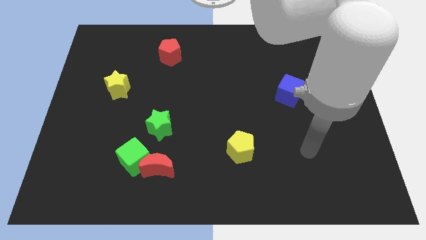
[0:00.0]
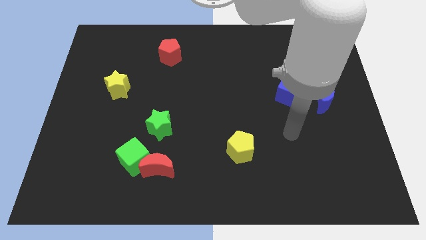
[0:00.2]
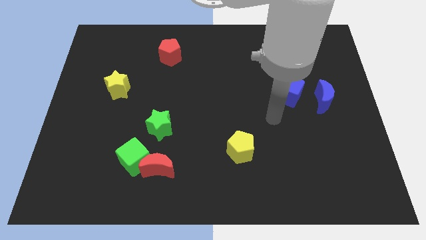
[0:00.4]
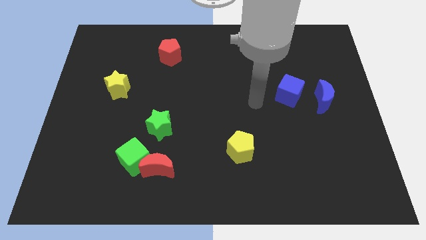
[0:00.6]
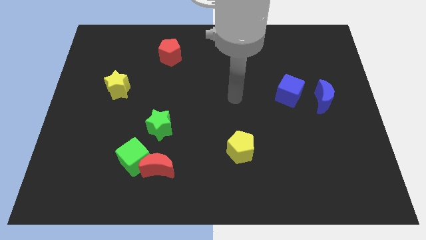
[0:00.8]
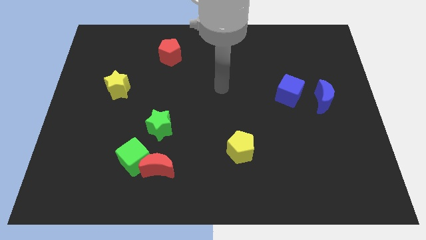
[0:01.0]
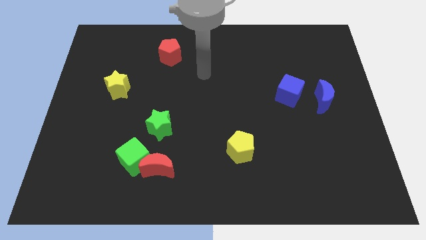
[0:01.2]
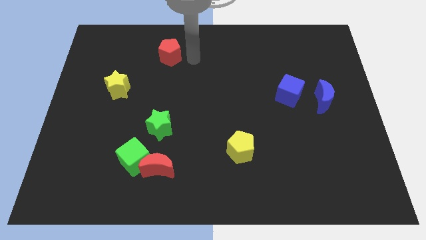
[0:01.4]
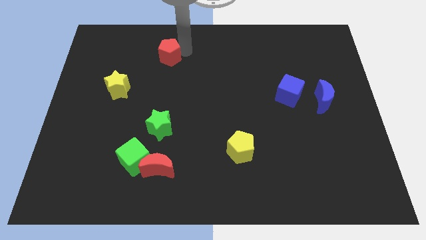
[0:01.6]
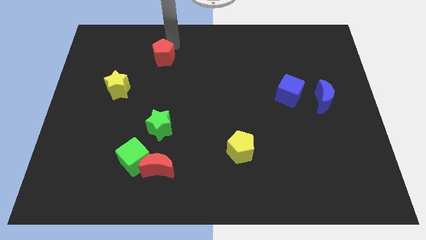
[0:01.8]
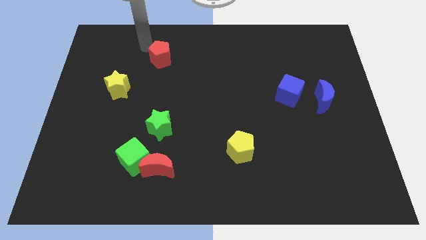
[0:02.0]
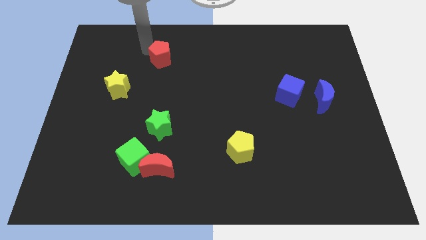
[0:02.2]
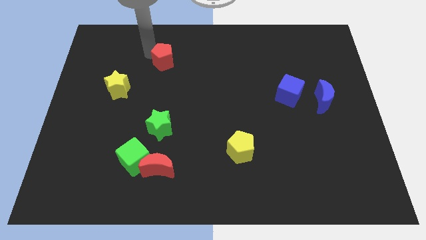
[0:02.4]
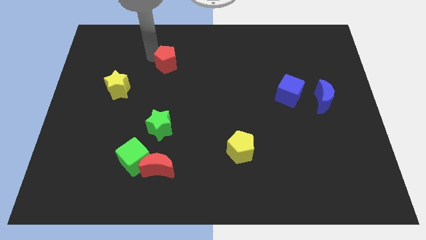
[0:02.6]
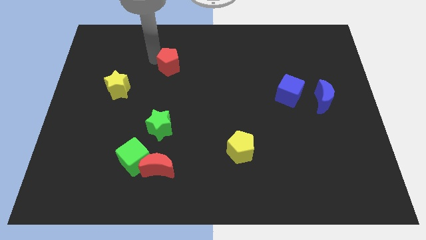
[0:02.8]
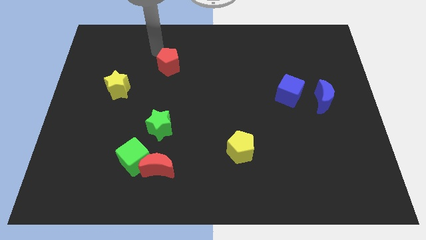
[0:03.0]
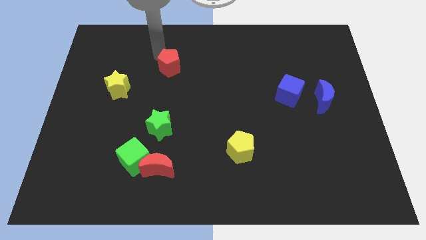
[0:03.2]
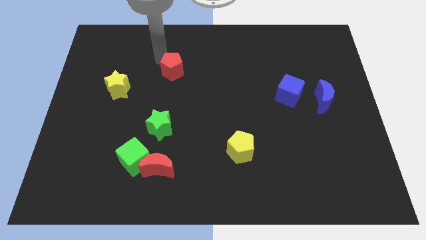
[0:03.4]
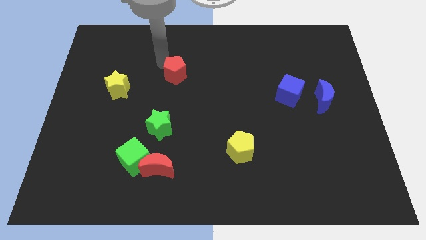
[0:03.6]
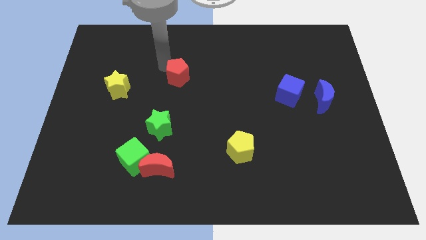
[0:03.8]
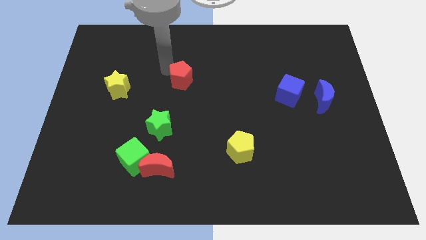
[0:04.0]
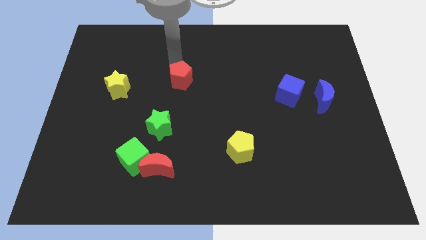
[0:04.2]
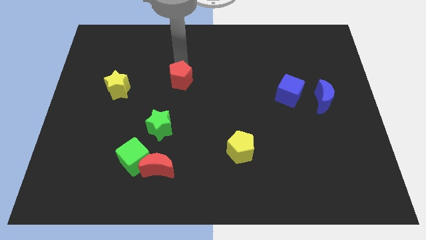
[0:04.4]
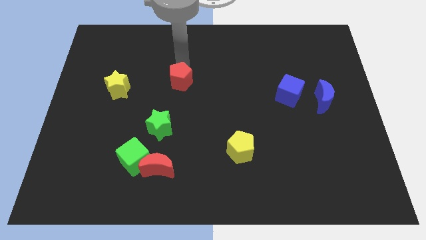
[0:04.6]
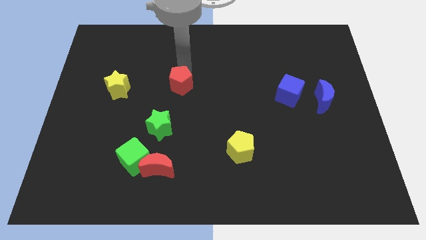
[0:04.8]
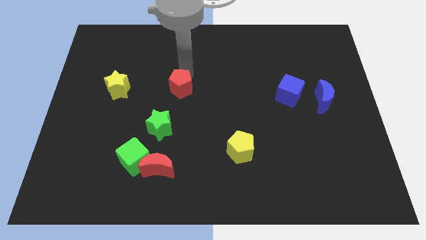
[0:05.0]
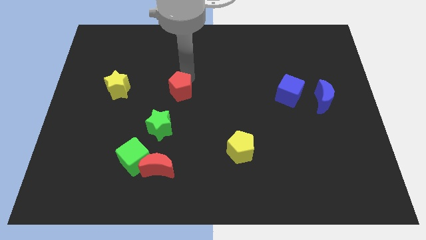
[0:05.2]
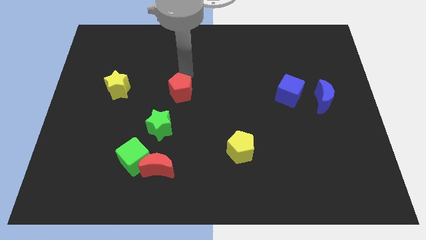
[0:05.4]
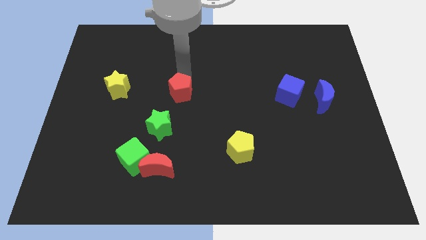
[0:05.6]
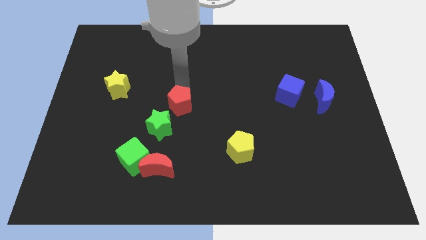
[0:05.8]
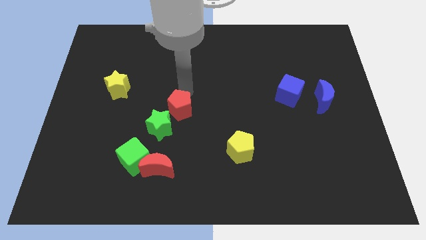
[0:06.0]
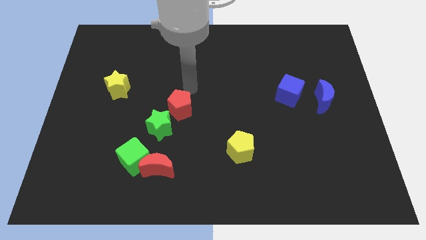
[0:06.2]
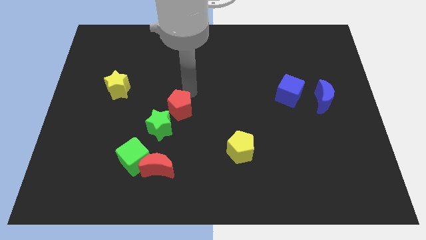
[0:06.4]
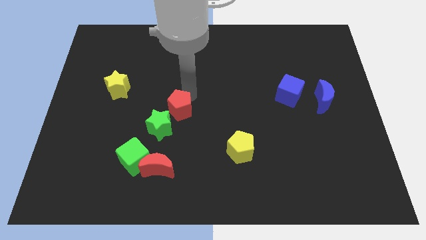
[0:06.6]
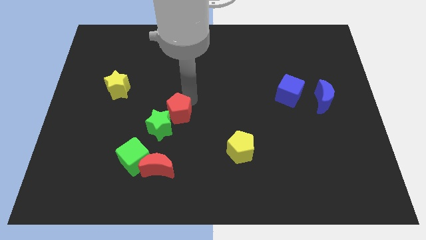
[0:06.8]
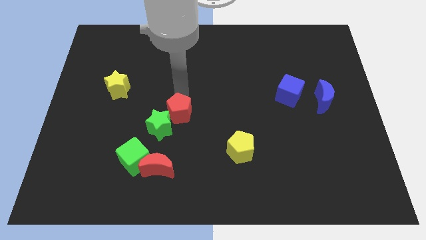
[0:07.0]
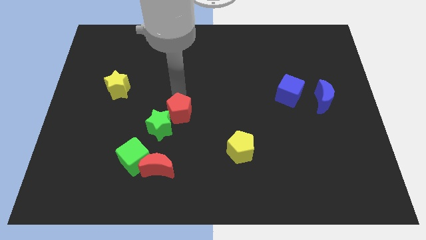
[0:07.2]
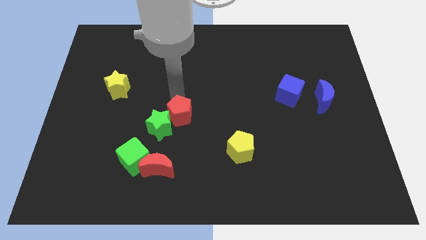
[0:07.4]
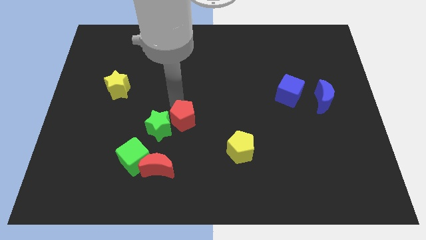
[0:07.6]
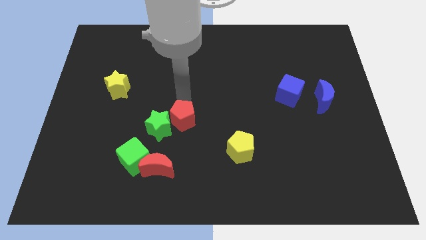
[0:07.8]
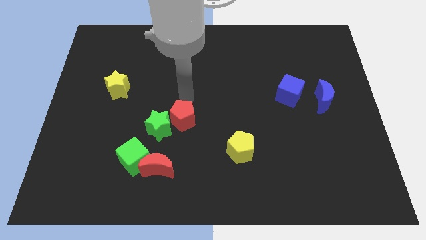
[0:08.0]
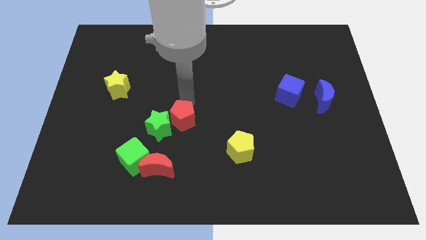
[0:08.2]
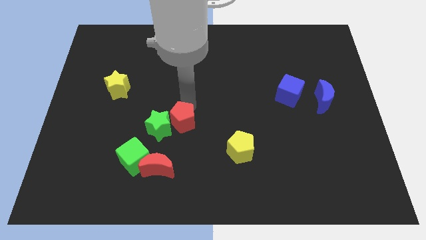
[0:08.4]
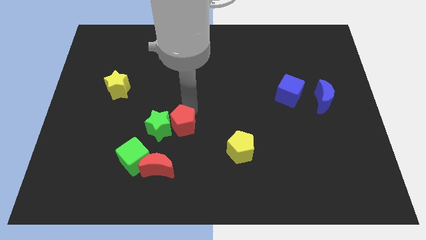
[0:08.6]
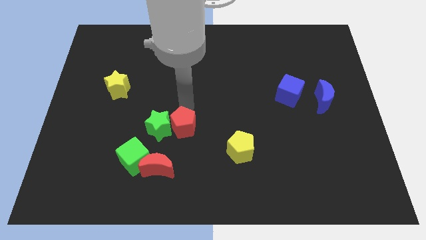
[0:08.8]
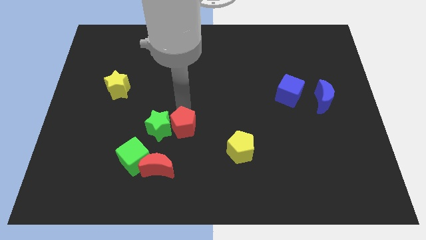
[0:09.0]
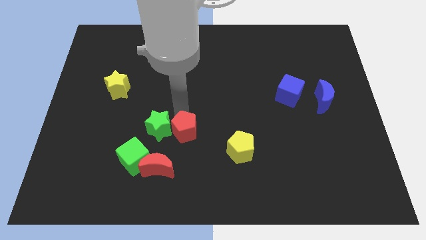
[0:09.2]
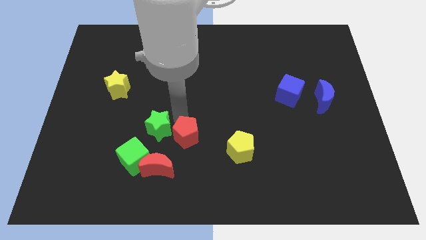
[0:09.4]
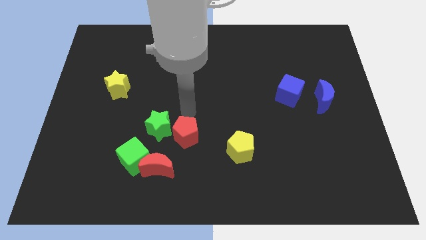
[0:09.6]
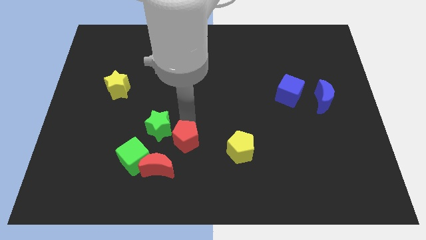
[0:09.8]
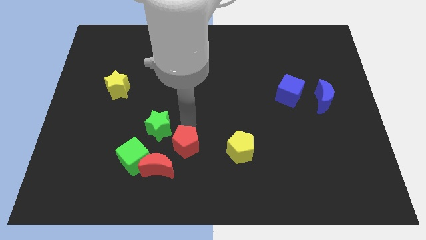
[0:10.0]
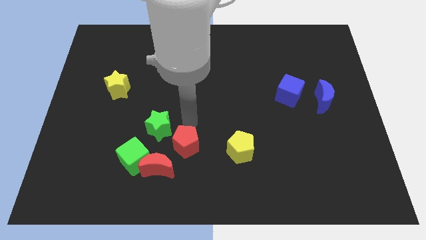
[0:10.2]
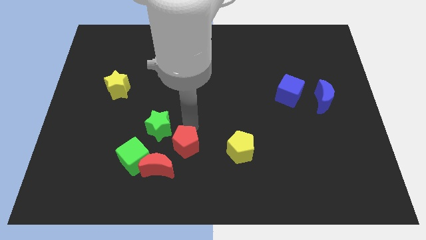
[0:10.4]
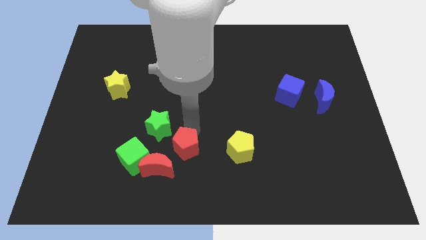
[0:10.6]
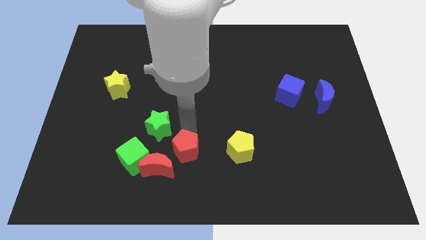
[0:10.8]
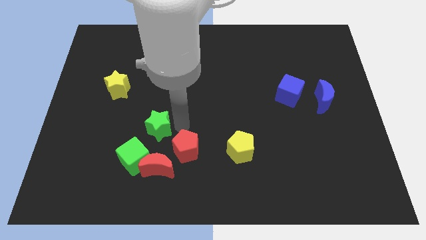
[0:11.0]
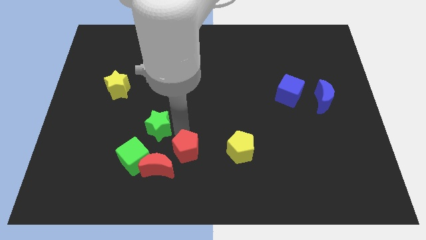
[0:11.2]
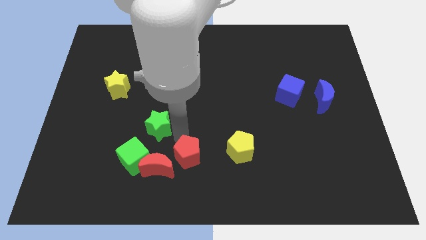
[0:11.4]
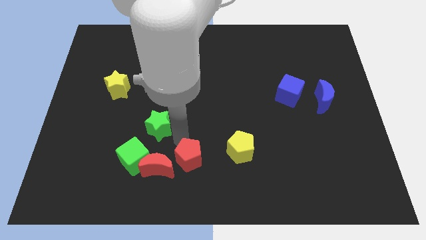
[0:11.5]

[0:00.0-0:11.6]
put the red pentagon to the bottom

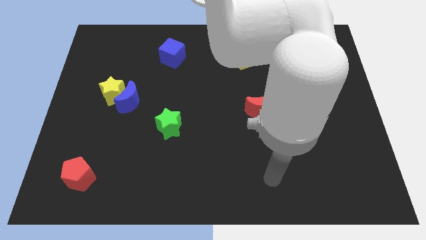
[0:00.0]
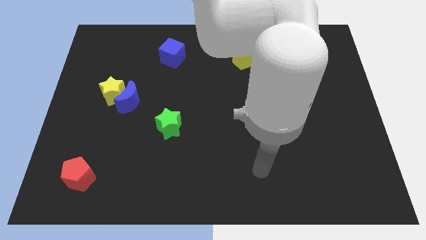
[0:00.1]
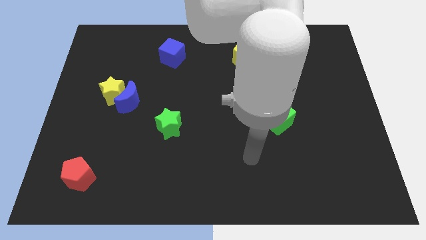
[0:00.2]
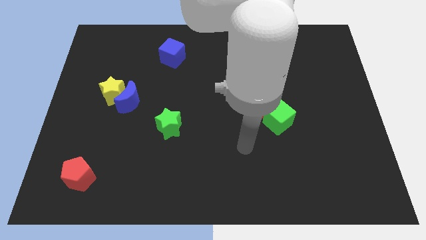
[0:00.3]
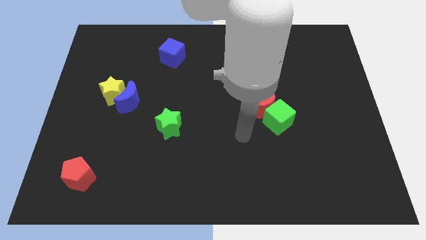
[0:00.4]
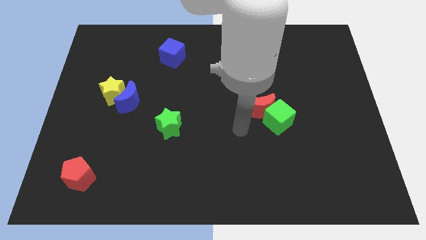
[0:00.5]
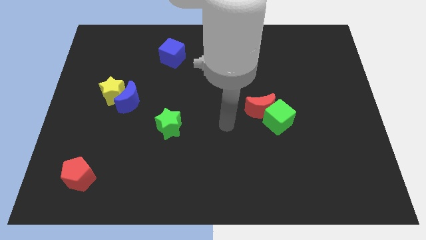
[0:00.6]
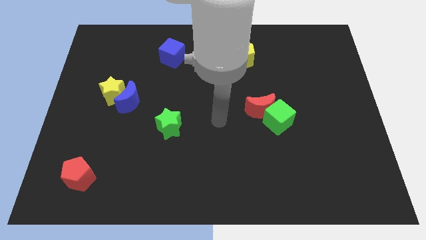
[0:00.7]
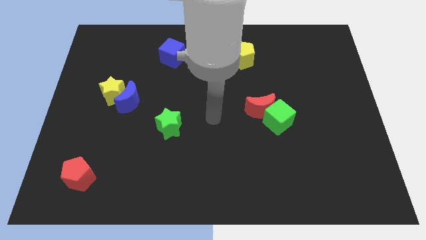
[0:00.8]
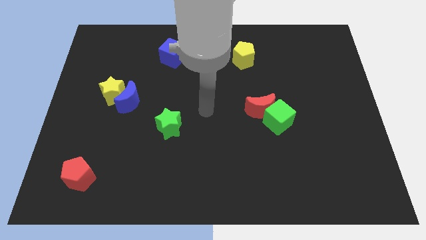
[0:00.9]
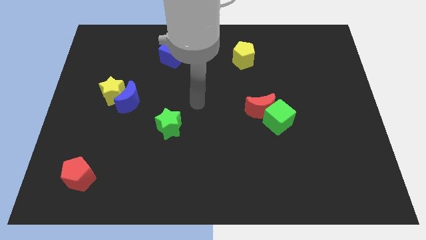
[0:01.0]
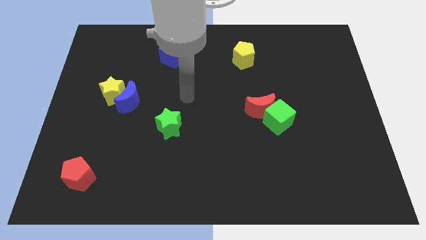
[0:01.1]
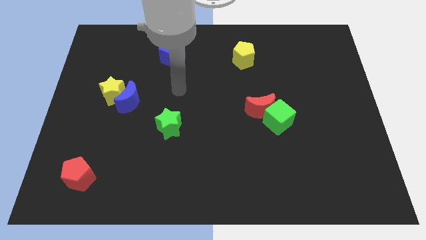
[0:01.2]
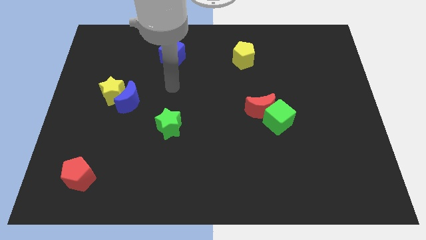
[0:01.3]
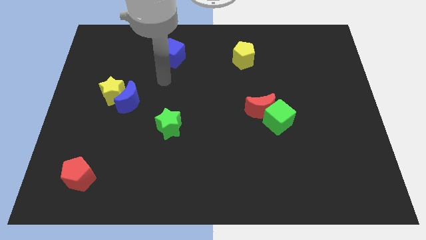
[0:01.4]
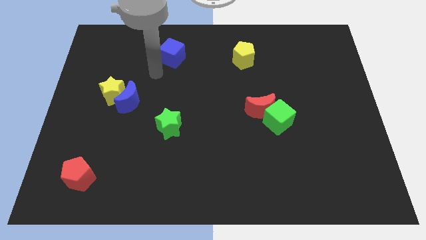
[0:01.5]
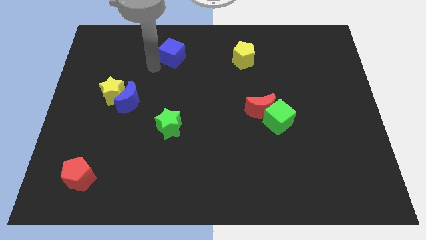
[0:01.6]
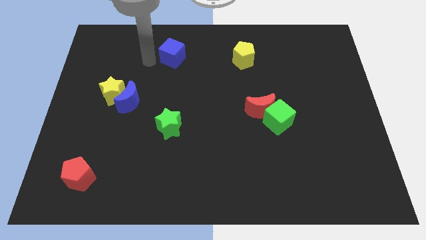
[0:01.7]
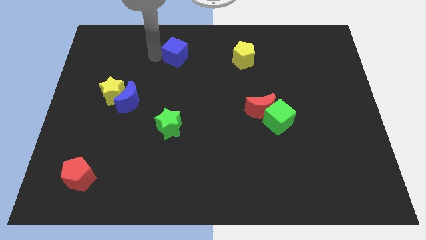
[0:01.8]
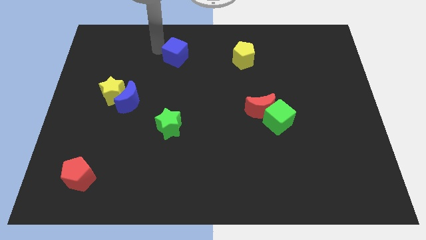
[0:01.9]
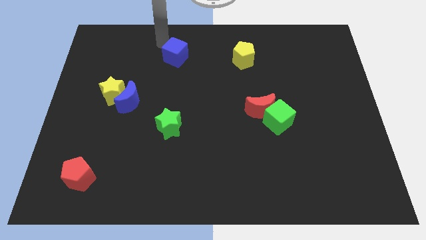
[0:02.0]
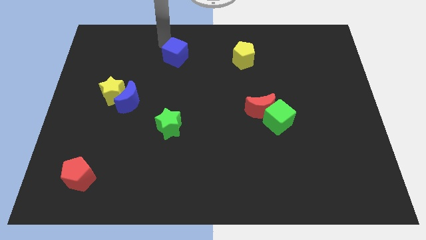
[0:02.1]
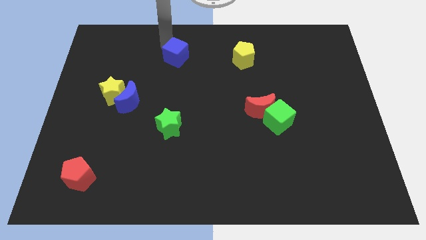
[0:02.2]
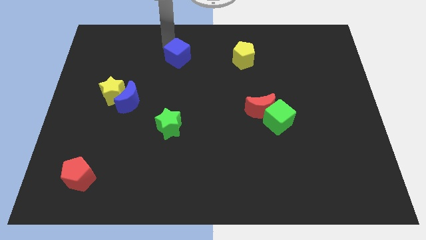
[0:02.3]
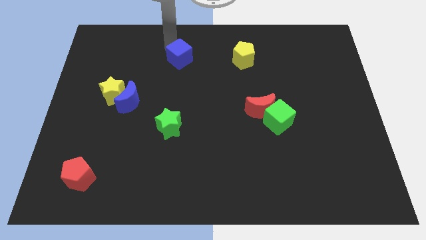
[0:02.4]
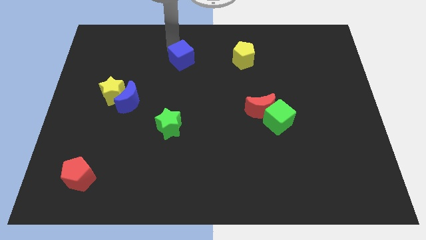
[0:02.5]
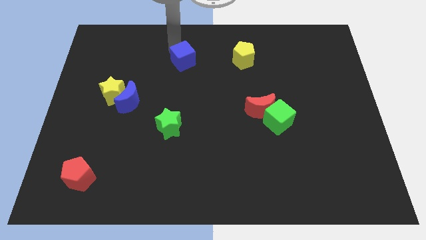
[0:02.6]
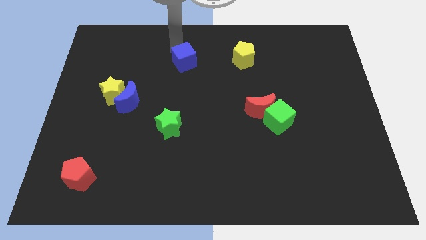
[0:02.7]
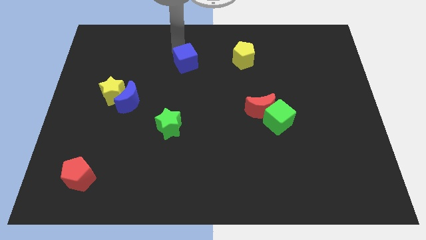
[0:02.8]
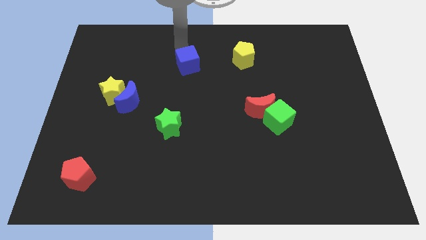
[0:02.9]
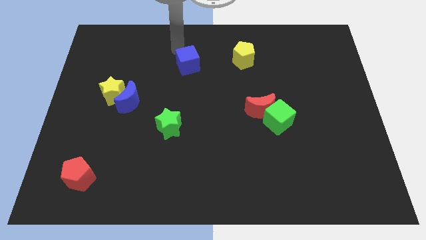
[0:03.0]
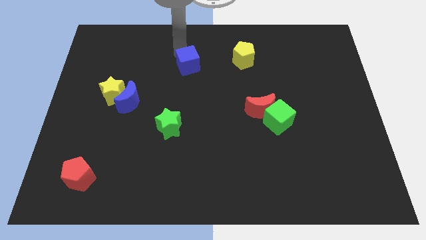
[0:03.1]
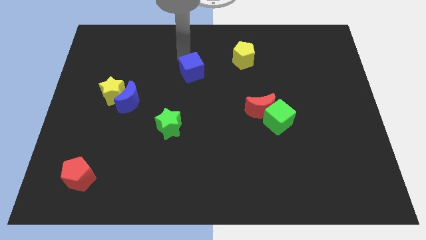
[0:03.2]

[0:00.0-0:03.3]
move the blue cube to the center
